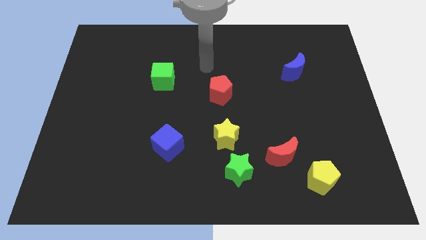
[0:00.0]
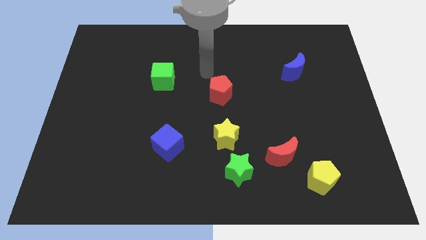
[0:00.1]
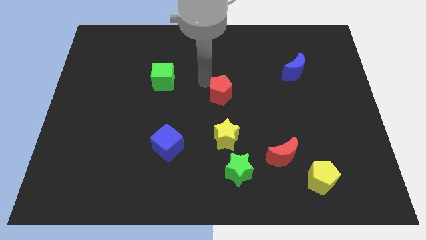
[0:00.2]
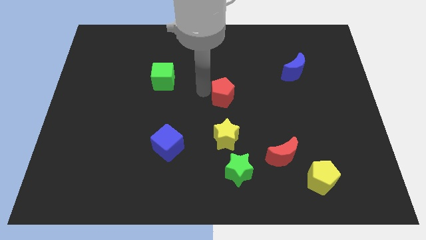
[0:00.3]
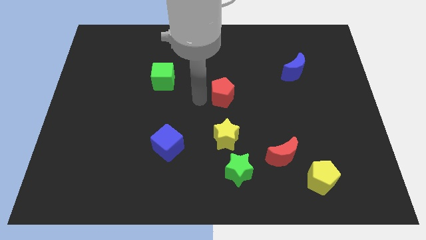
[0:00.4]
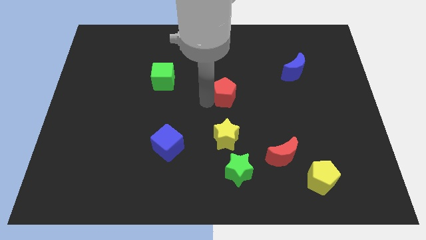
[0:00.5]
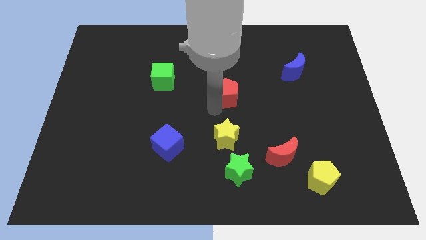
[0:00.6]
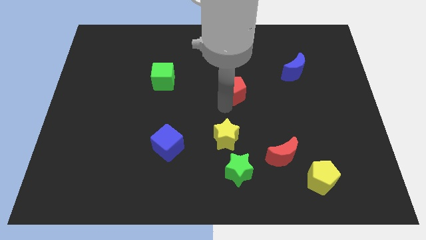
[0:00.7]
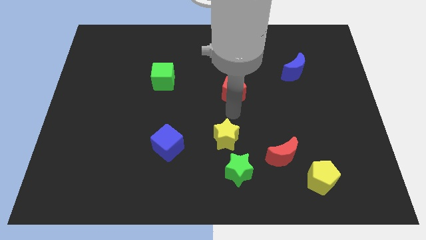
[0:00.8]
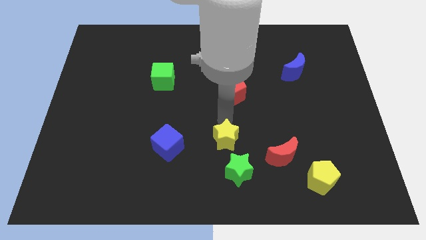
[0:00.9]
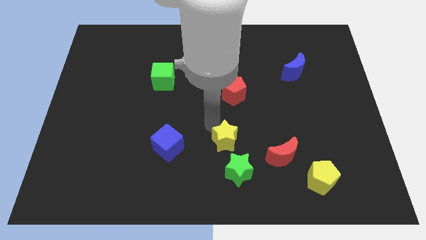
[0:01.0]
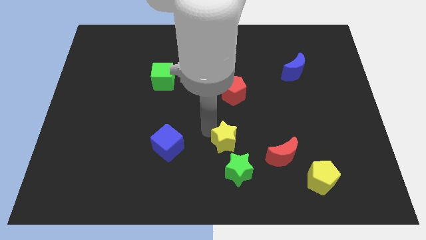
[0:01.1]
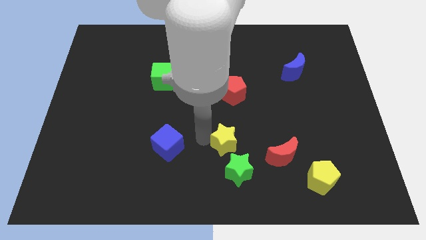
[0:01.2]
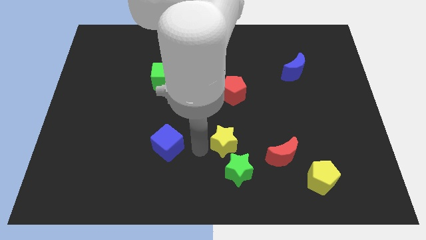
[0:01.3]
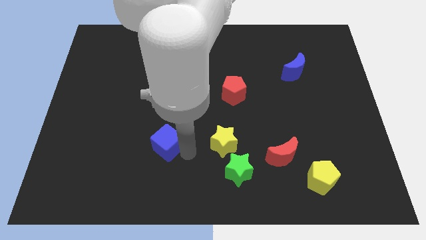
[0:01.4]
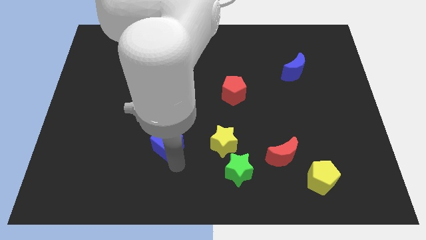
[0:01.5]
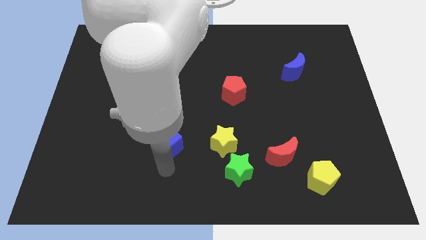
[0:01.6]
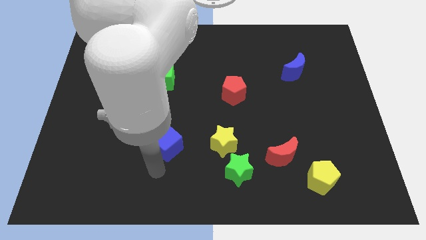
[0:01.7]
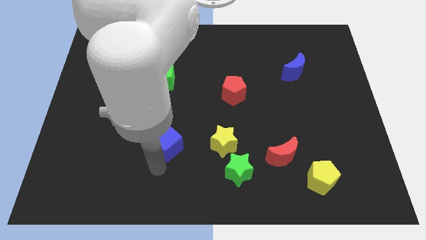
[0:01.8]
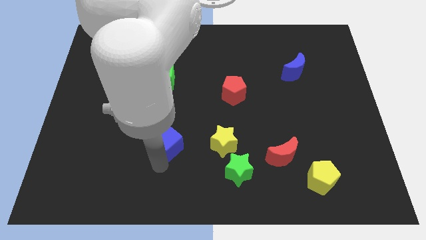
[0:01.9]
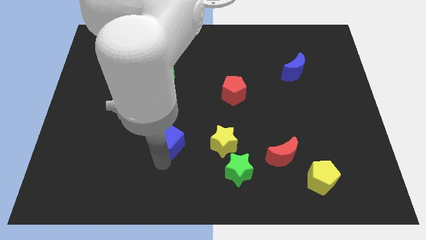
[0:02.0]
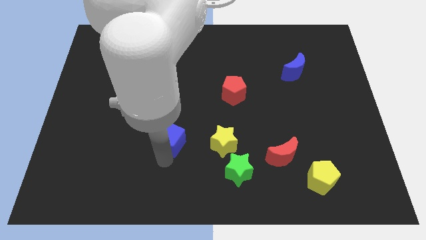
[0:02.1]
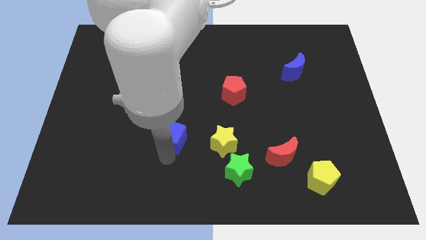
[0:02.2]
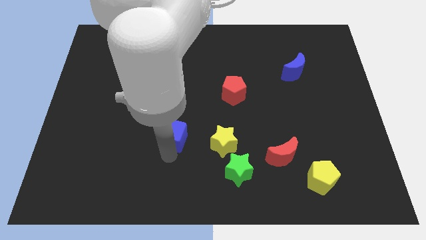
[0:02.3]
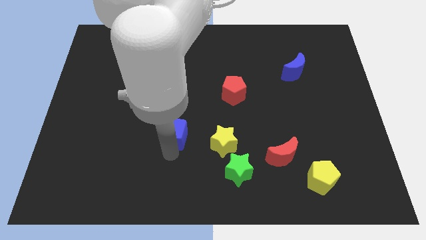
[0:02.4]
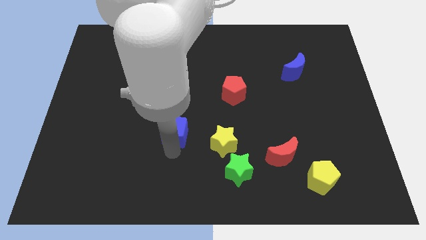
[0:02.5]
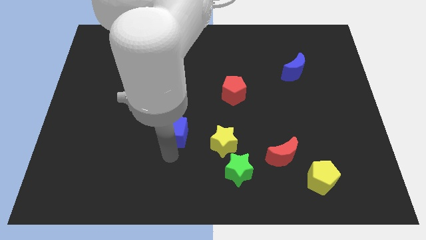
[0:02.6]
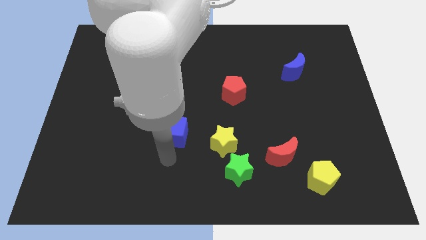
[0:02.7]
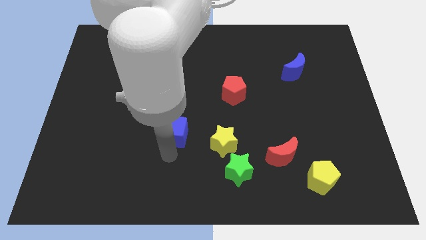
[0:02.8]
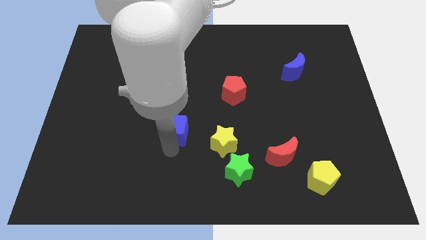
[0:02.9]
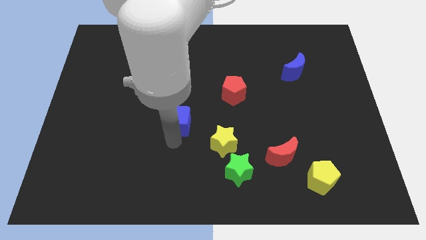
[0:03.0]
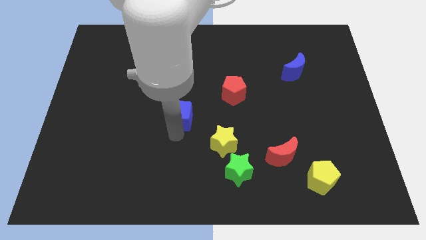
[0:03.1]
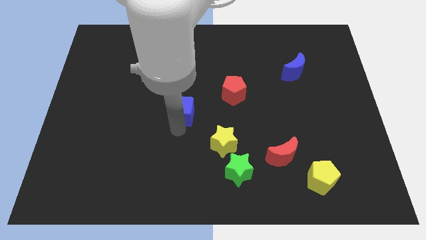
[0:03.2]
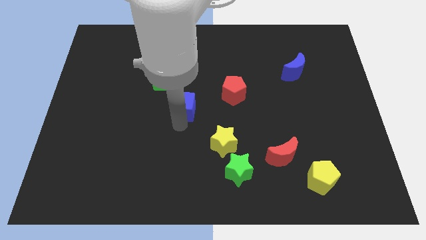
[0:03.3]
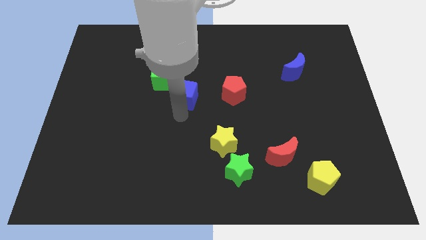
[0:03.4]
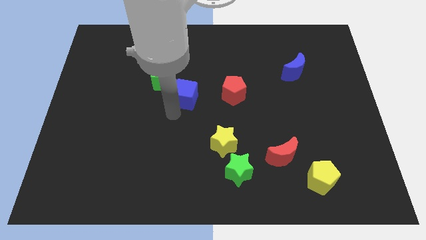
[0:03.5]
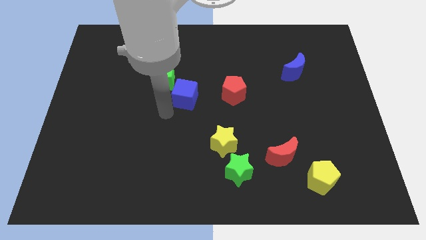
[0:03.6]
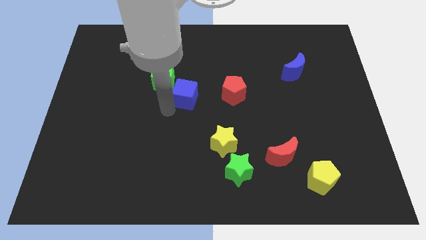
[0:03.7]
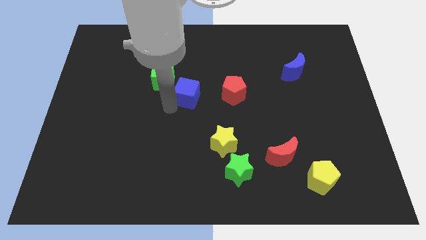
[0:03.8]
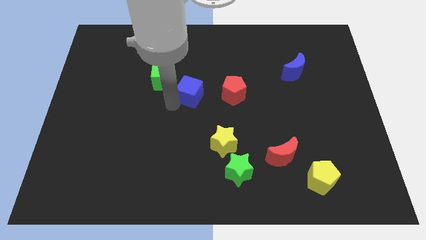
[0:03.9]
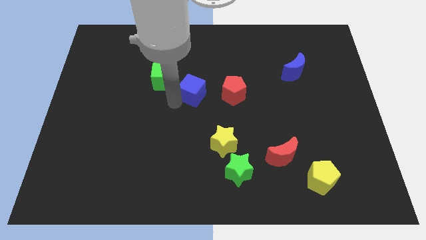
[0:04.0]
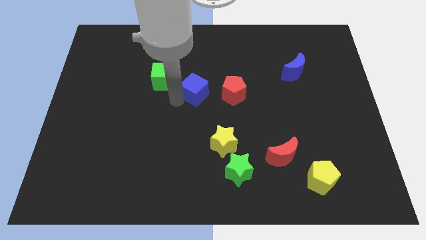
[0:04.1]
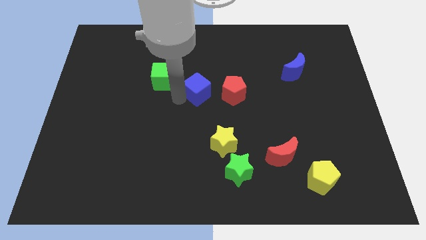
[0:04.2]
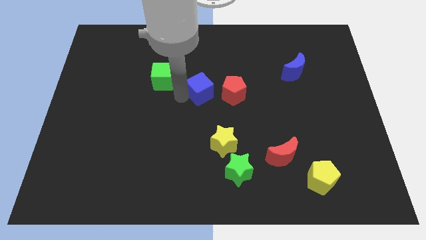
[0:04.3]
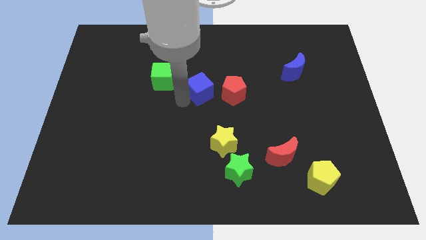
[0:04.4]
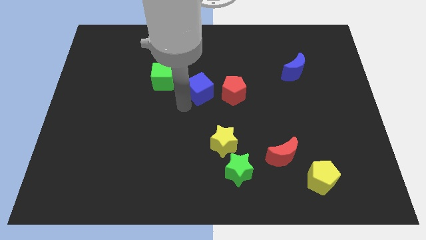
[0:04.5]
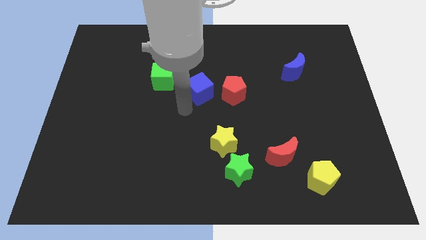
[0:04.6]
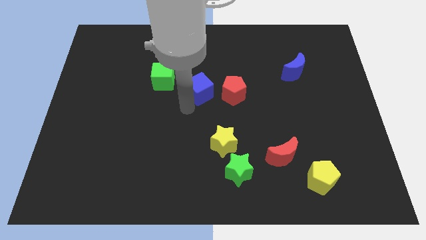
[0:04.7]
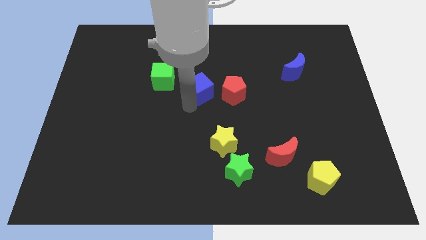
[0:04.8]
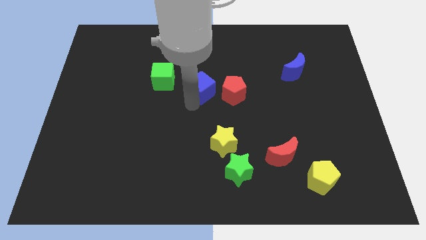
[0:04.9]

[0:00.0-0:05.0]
move the blue cube diagonally up and to the left of the red pentagon

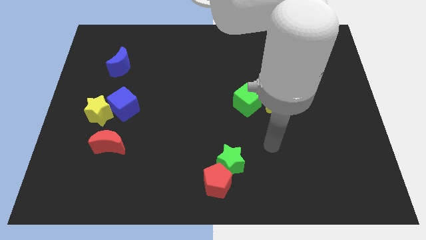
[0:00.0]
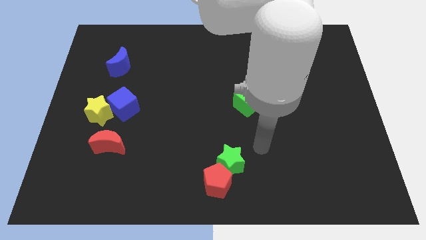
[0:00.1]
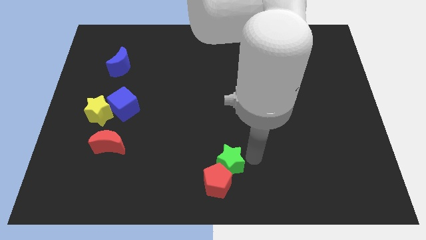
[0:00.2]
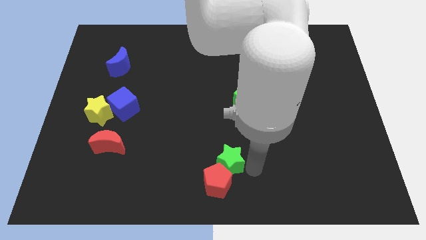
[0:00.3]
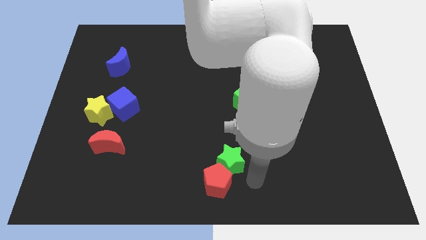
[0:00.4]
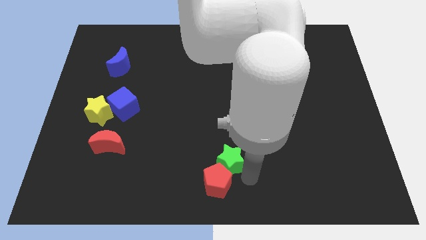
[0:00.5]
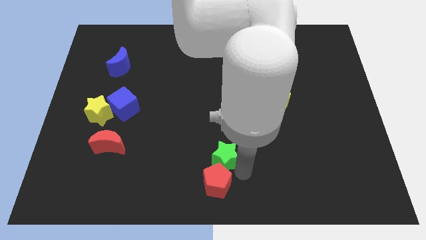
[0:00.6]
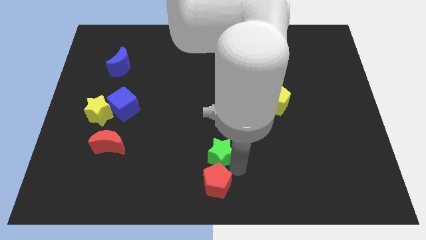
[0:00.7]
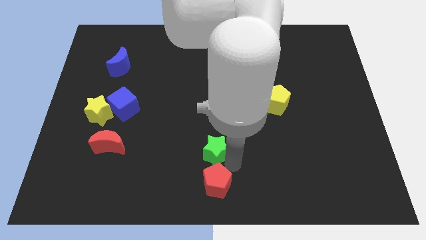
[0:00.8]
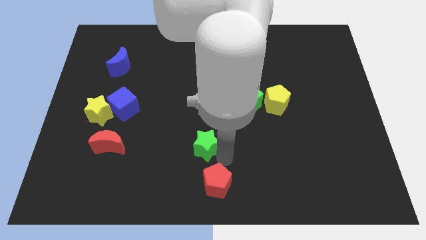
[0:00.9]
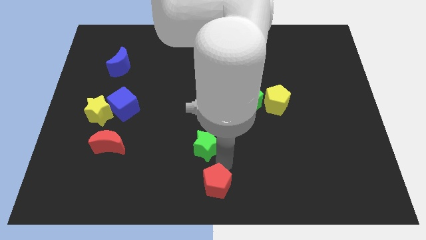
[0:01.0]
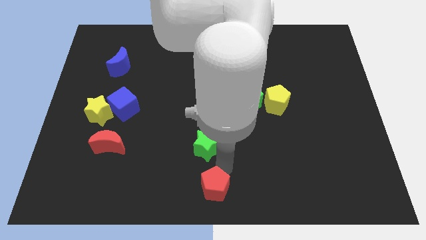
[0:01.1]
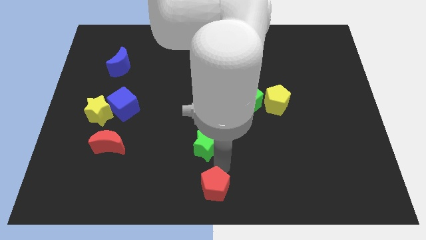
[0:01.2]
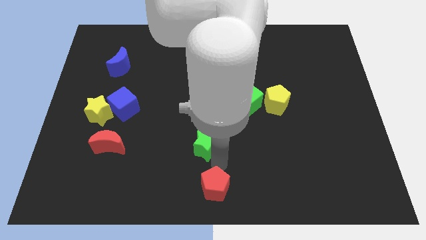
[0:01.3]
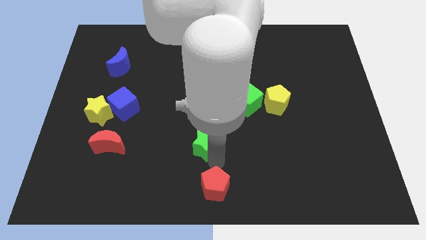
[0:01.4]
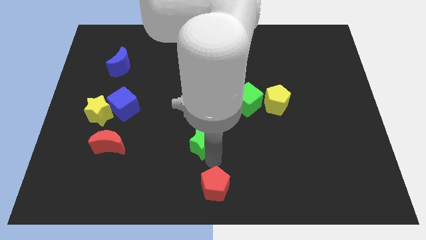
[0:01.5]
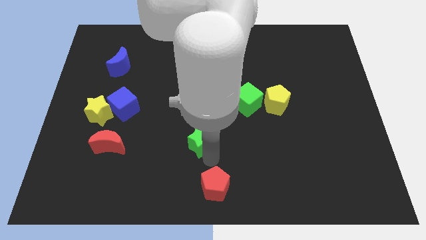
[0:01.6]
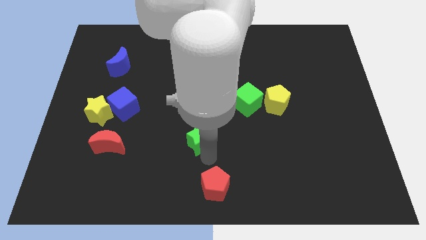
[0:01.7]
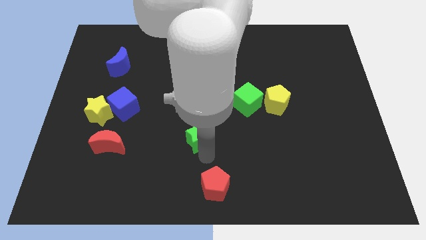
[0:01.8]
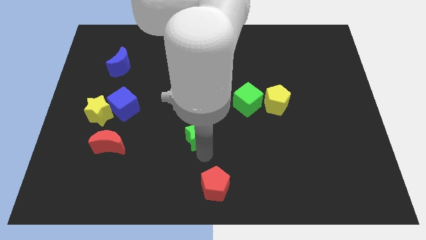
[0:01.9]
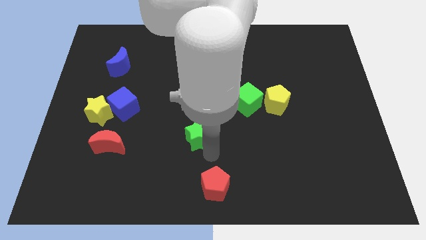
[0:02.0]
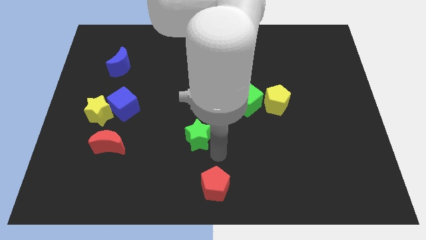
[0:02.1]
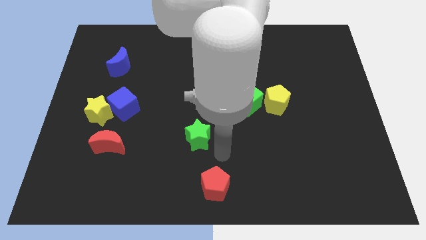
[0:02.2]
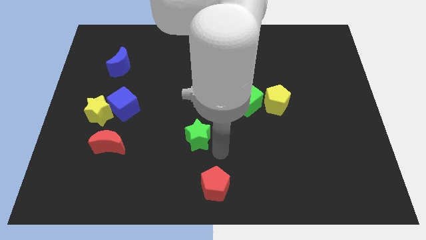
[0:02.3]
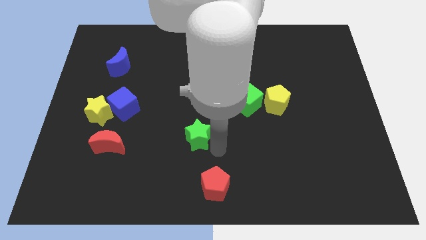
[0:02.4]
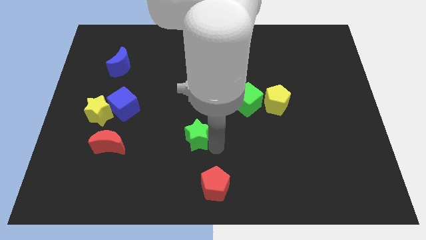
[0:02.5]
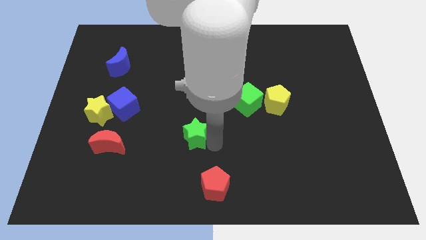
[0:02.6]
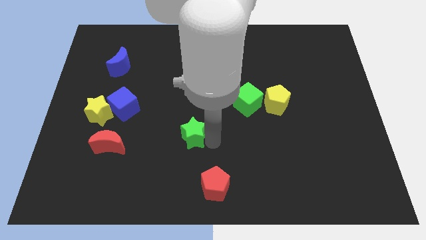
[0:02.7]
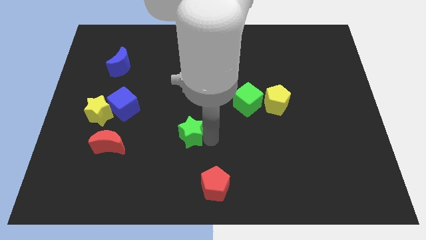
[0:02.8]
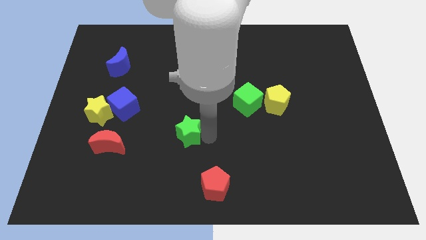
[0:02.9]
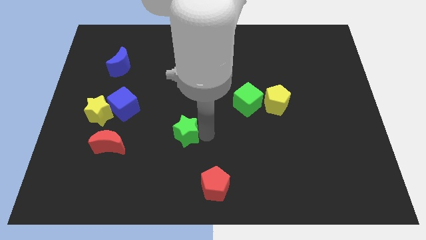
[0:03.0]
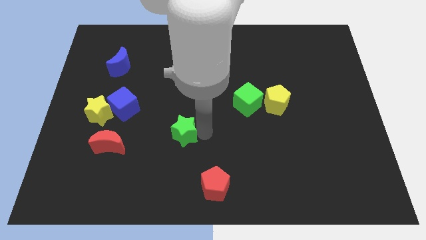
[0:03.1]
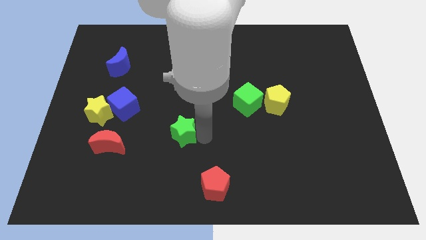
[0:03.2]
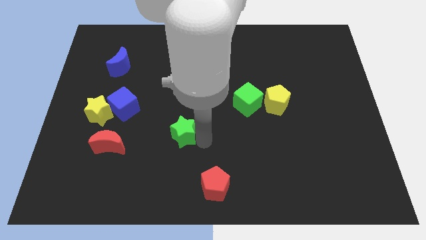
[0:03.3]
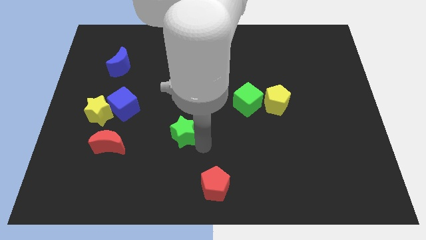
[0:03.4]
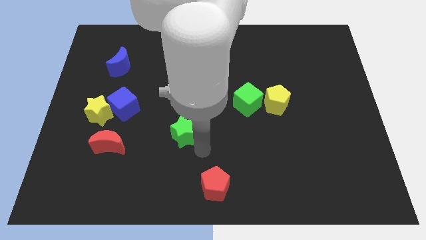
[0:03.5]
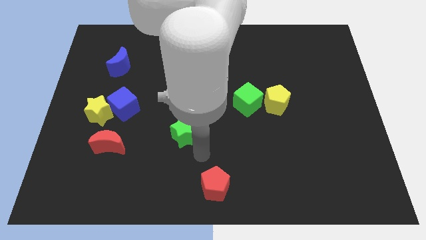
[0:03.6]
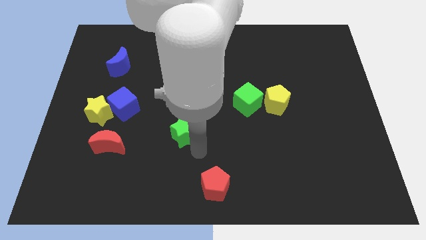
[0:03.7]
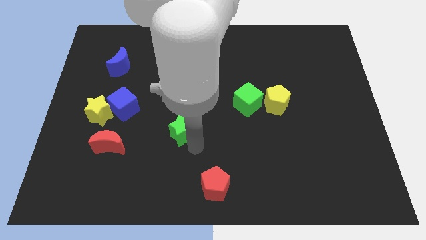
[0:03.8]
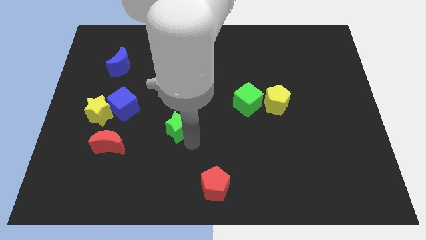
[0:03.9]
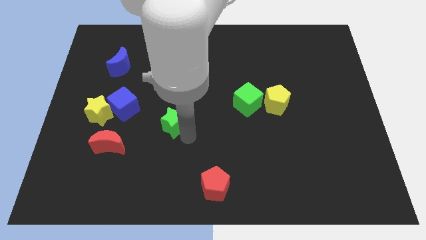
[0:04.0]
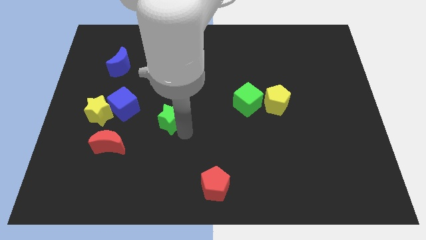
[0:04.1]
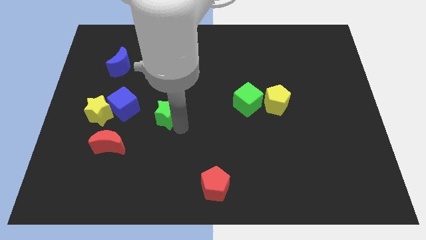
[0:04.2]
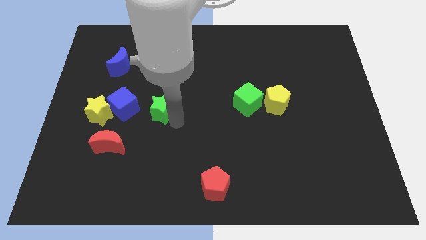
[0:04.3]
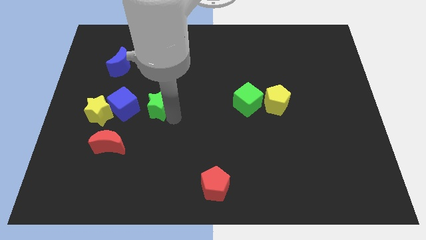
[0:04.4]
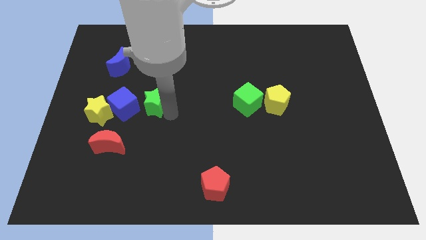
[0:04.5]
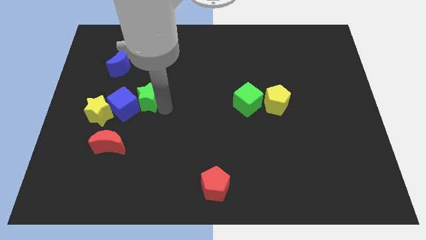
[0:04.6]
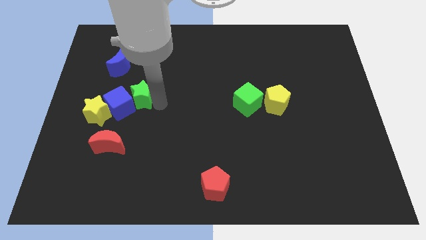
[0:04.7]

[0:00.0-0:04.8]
put the green star diagonally up and to the right of the yellow star
